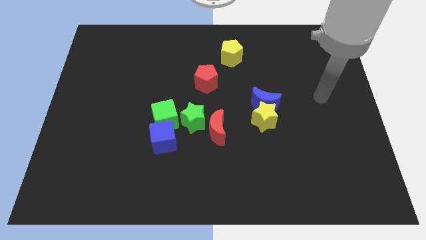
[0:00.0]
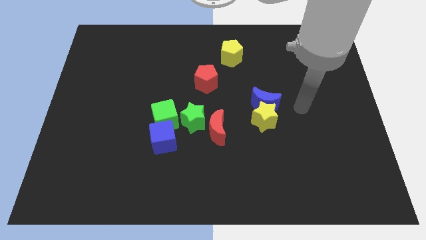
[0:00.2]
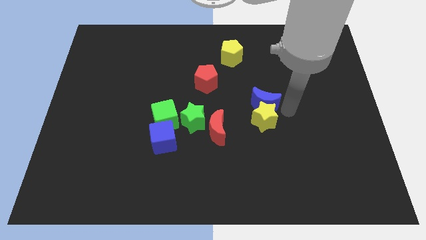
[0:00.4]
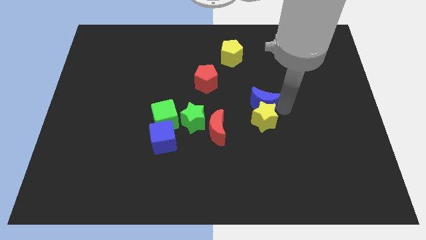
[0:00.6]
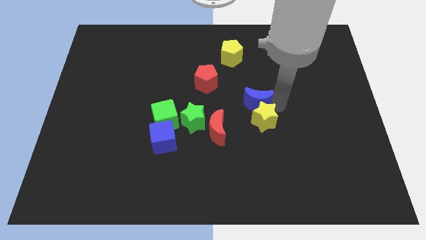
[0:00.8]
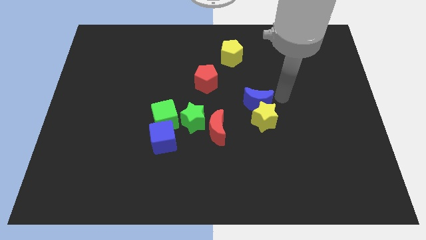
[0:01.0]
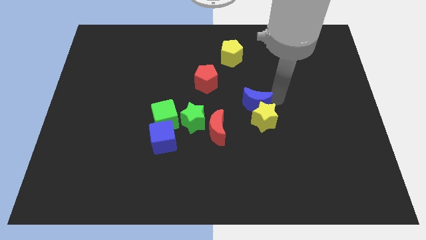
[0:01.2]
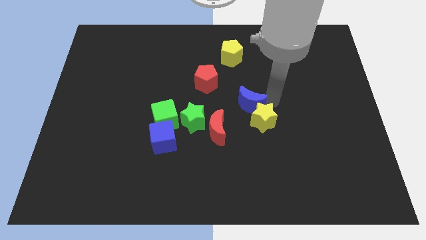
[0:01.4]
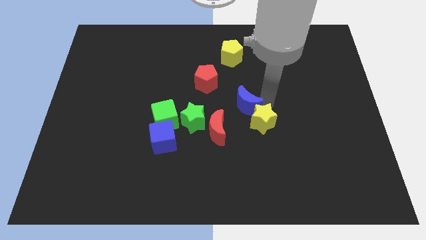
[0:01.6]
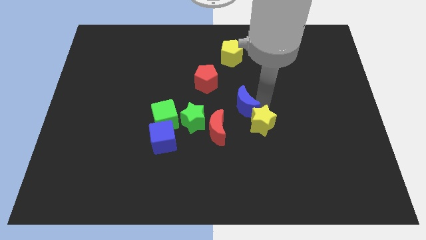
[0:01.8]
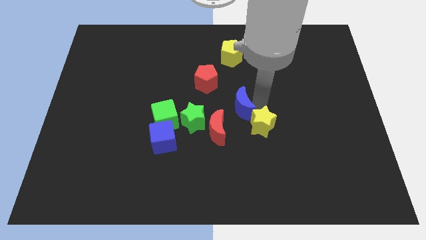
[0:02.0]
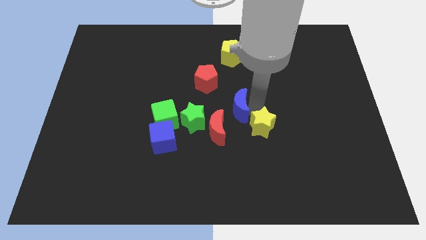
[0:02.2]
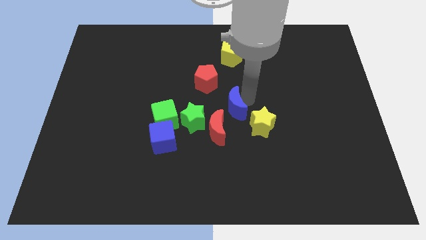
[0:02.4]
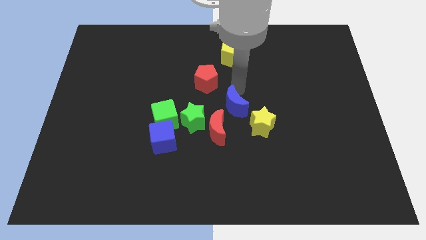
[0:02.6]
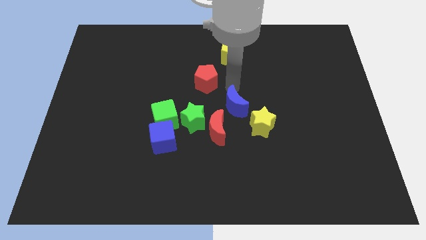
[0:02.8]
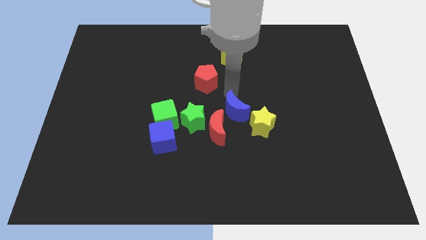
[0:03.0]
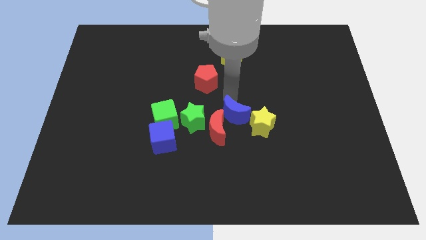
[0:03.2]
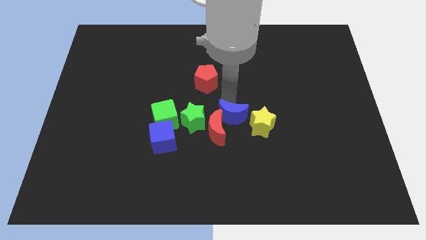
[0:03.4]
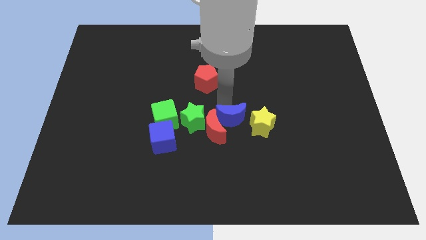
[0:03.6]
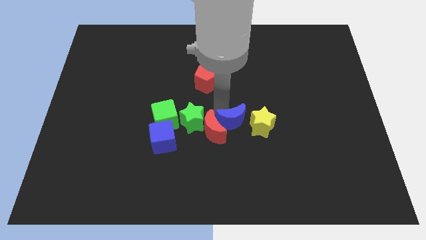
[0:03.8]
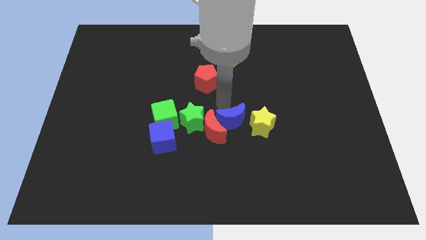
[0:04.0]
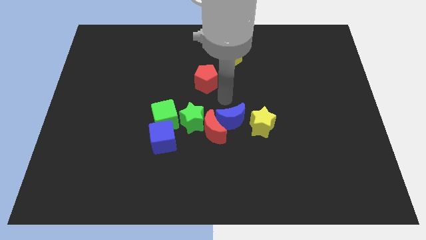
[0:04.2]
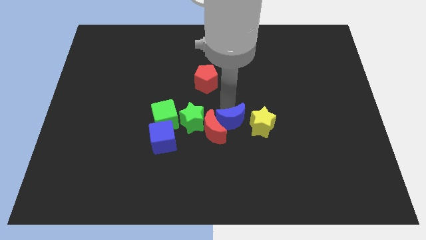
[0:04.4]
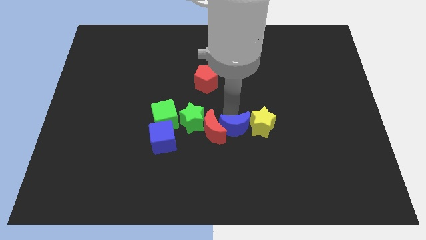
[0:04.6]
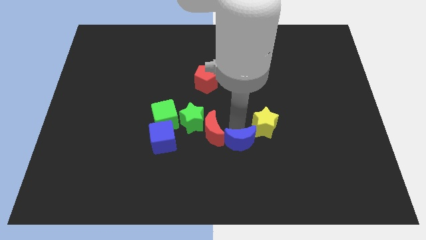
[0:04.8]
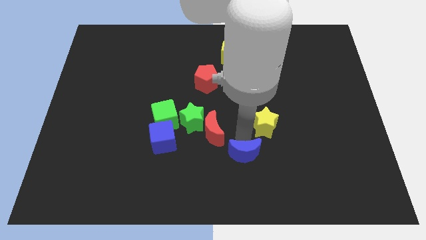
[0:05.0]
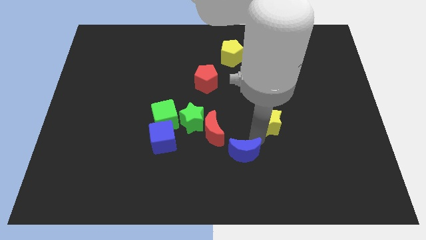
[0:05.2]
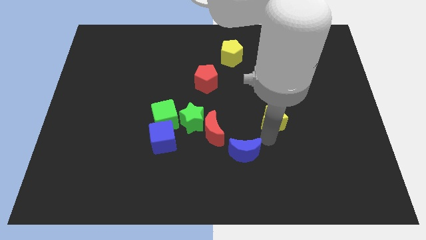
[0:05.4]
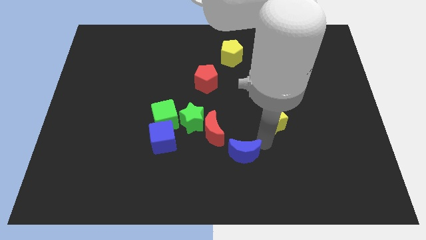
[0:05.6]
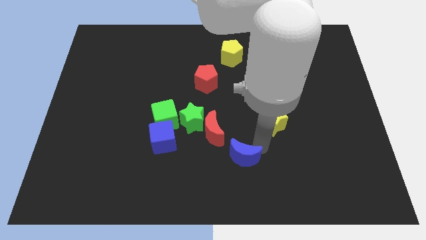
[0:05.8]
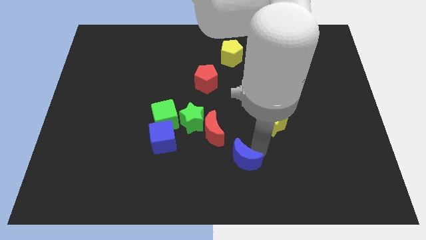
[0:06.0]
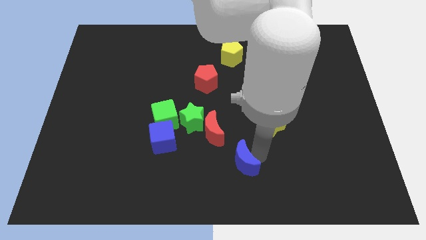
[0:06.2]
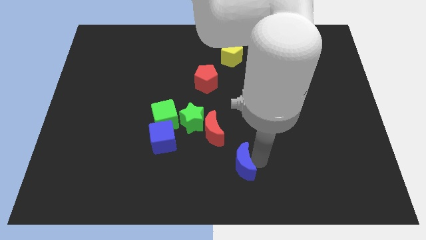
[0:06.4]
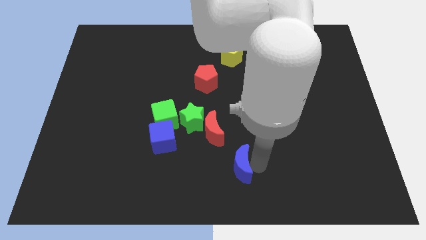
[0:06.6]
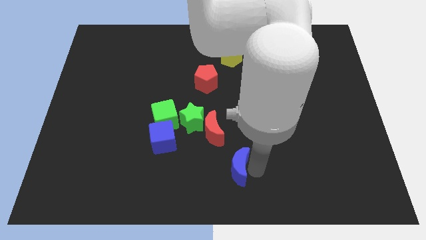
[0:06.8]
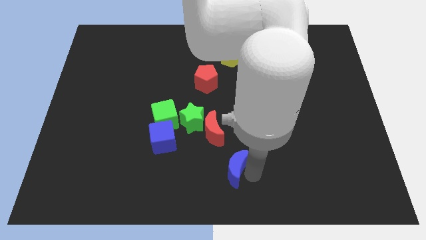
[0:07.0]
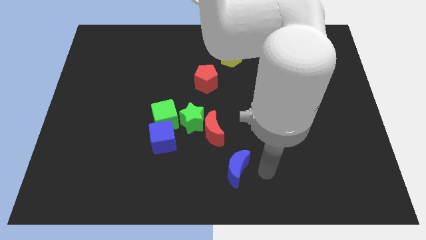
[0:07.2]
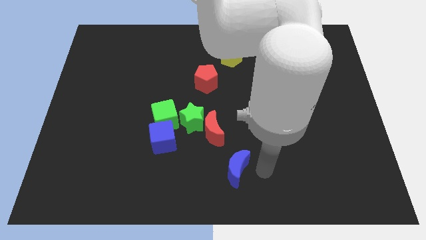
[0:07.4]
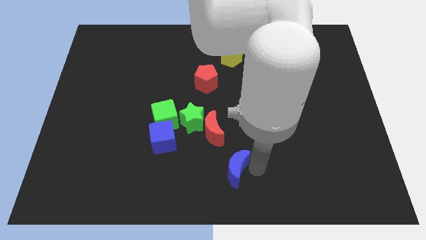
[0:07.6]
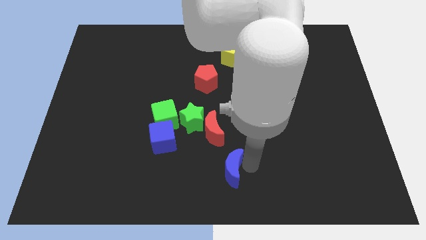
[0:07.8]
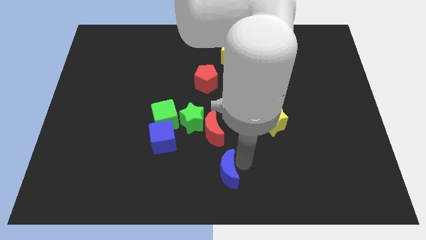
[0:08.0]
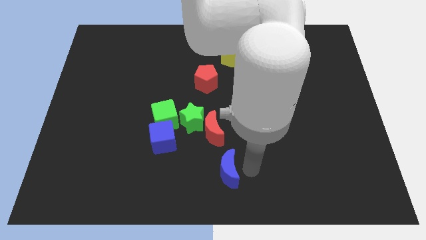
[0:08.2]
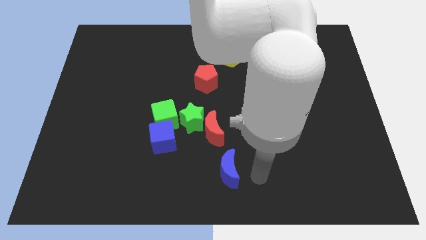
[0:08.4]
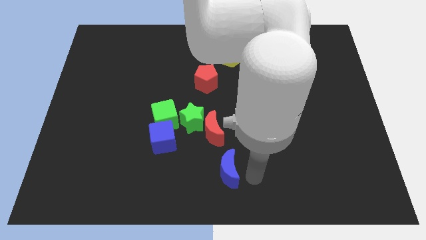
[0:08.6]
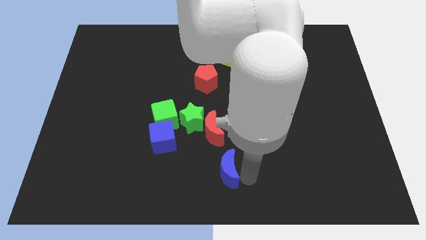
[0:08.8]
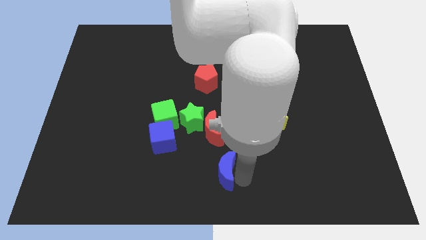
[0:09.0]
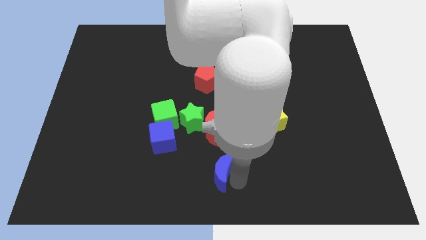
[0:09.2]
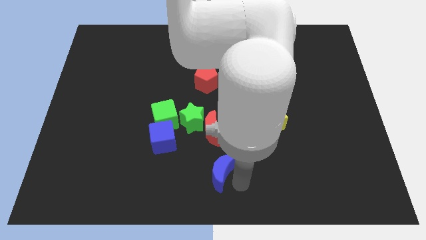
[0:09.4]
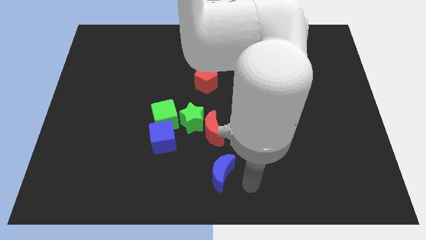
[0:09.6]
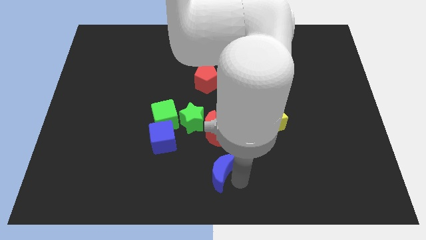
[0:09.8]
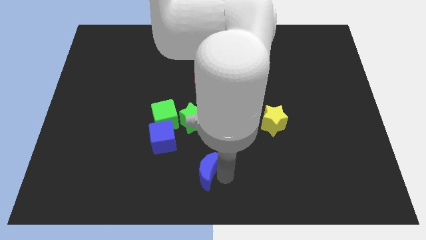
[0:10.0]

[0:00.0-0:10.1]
push the blue moon diagonally down and to the right of the blue cube

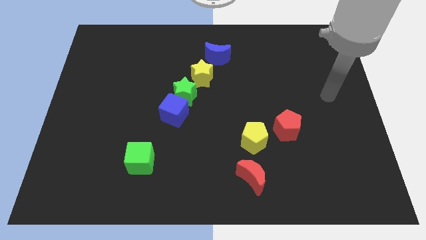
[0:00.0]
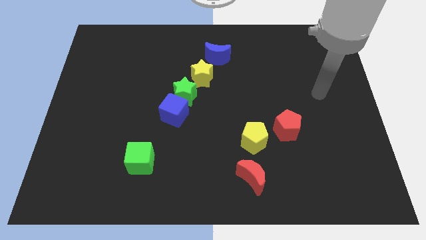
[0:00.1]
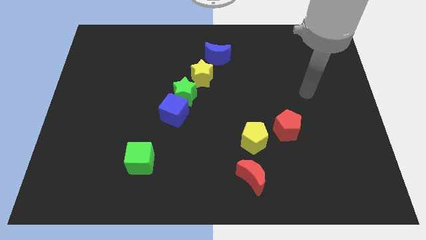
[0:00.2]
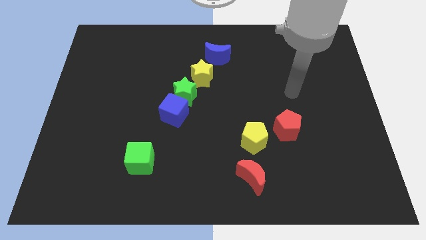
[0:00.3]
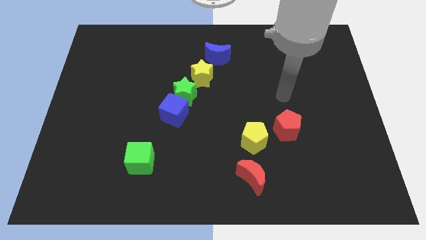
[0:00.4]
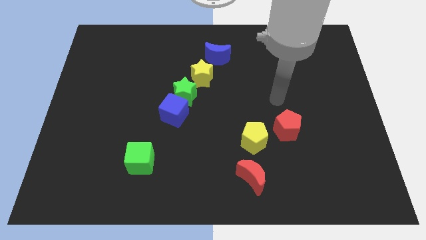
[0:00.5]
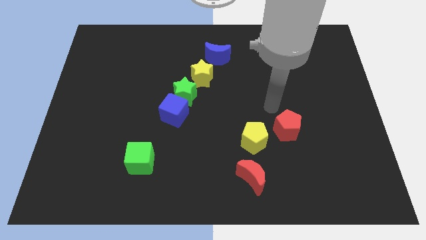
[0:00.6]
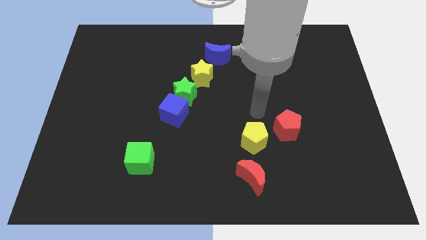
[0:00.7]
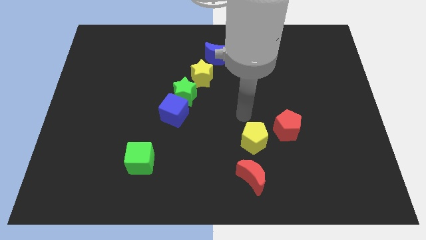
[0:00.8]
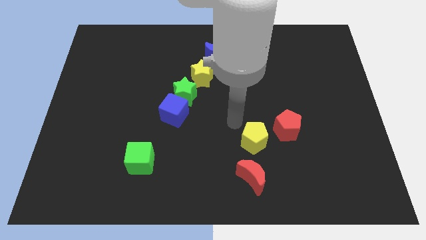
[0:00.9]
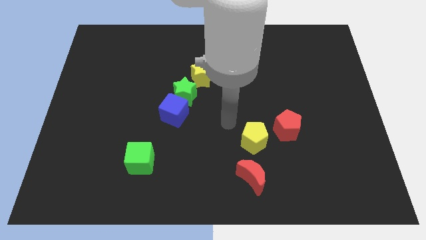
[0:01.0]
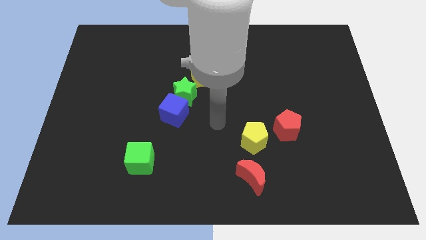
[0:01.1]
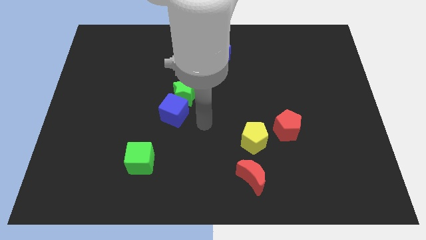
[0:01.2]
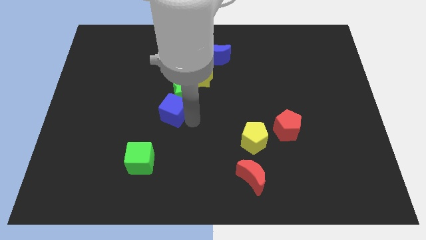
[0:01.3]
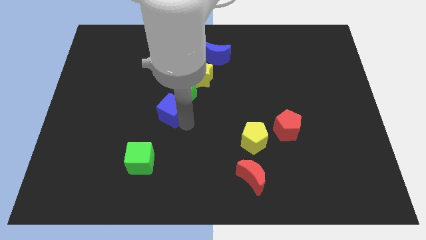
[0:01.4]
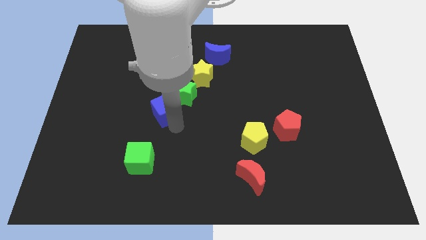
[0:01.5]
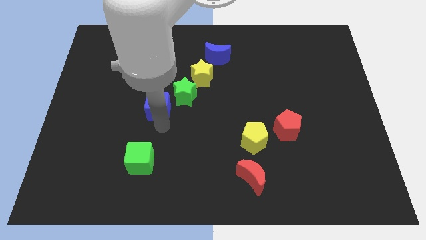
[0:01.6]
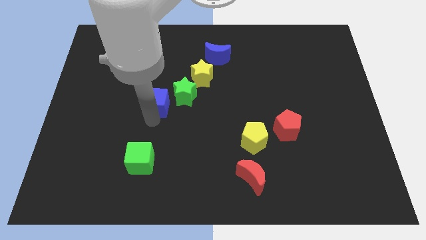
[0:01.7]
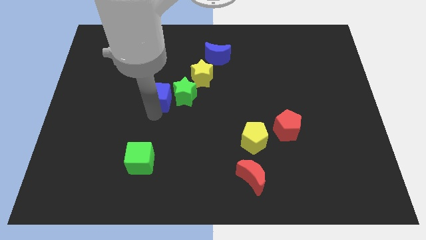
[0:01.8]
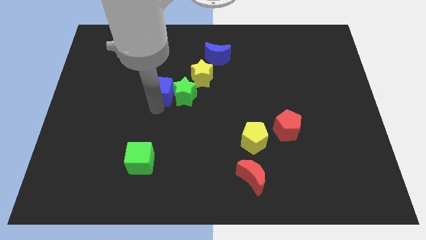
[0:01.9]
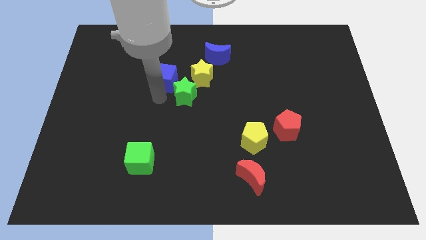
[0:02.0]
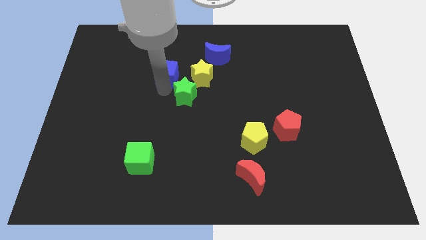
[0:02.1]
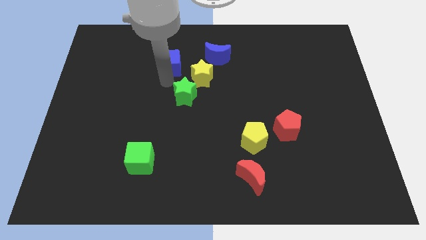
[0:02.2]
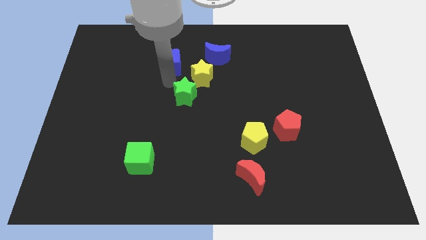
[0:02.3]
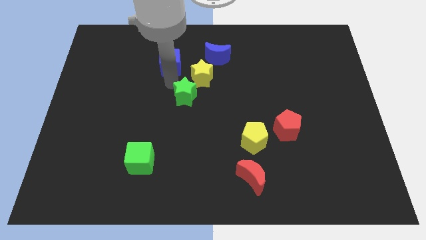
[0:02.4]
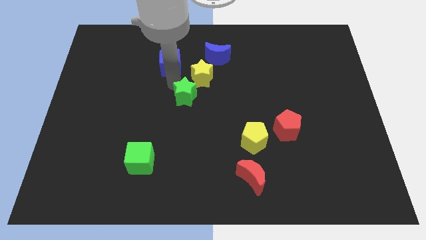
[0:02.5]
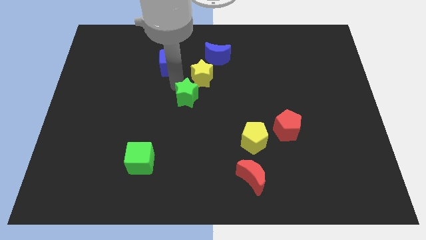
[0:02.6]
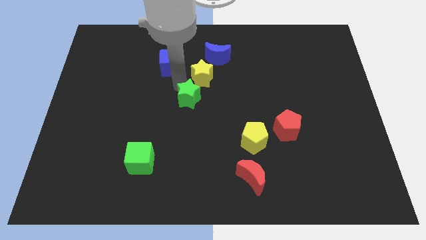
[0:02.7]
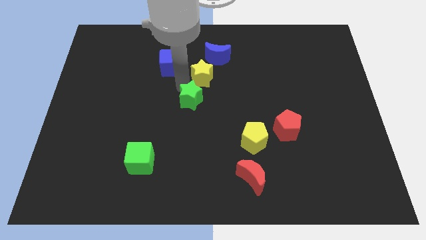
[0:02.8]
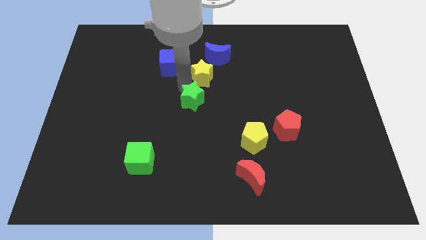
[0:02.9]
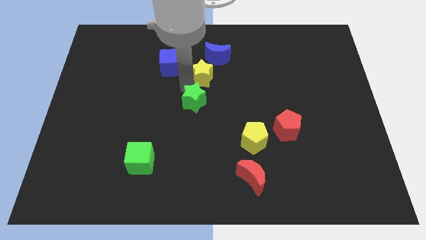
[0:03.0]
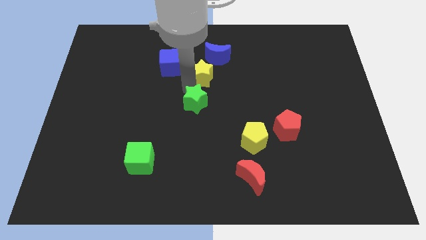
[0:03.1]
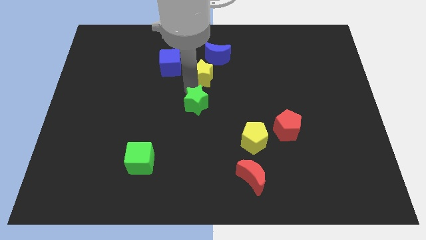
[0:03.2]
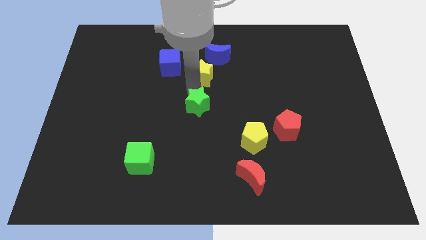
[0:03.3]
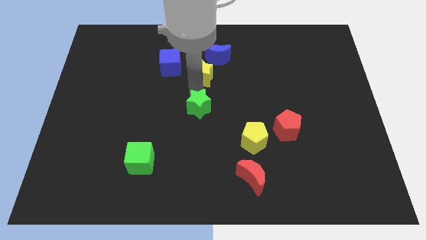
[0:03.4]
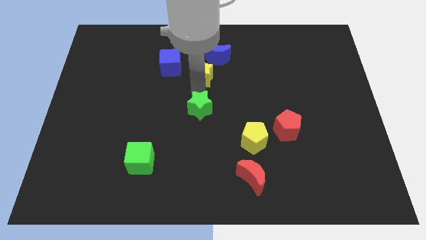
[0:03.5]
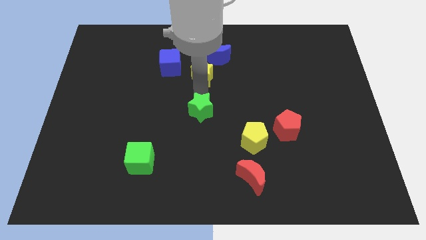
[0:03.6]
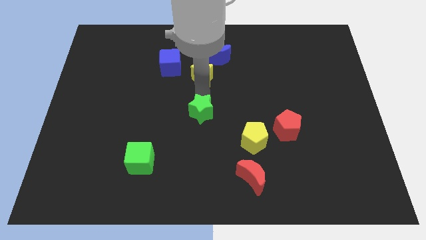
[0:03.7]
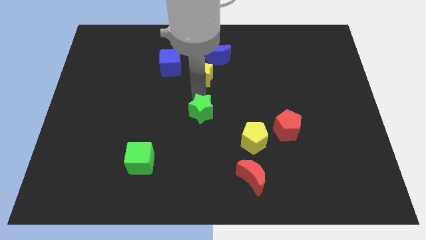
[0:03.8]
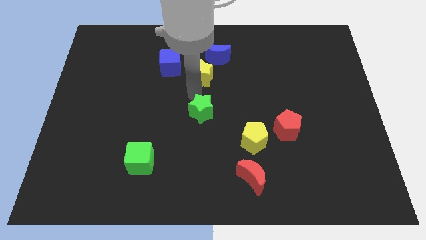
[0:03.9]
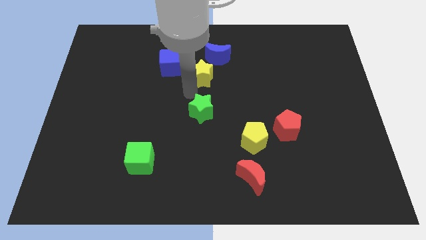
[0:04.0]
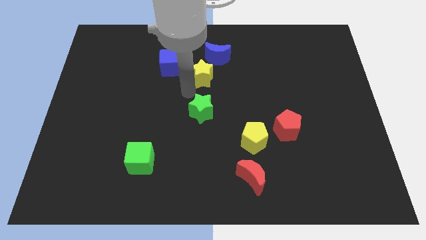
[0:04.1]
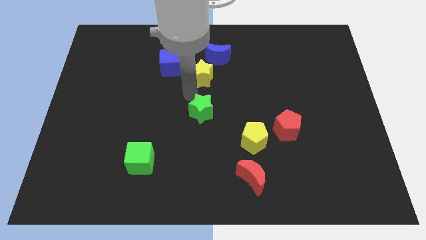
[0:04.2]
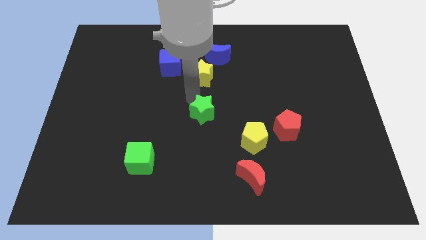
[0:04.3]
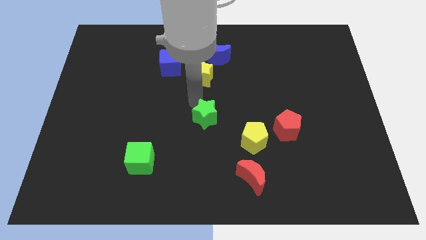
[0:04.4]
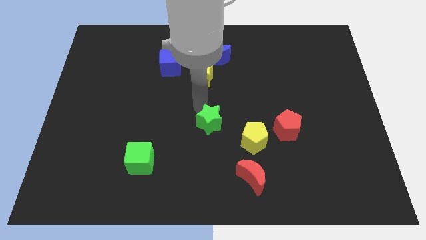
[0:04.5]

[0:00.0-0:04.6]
push the green star left of the yellow pentagon
